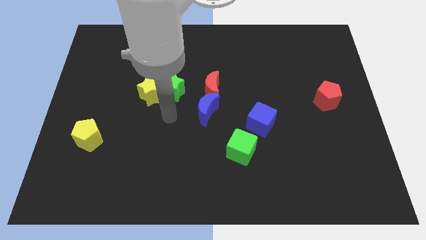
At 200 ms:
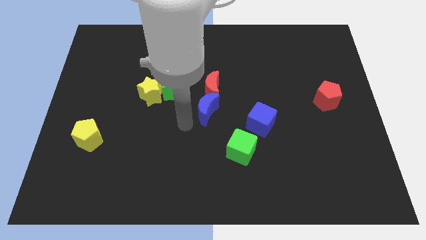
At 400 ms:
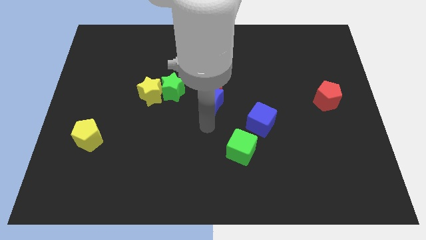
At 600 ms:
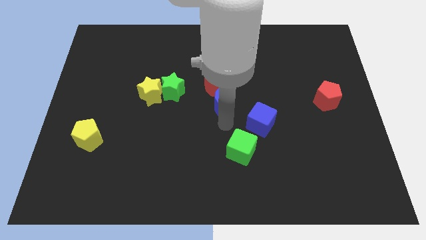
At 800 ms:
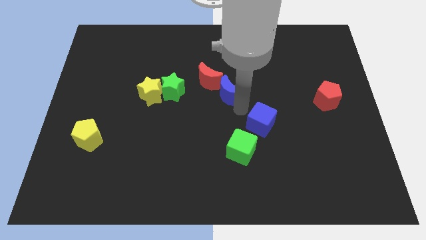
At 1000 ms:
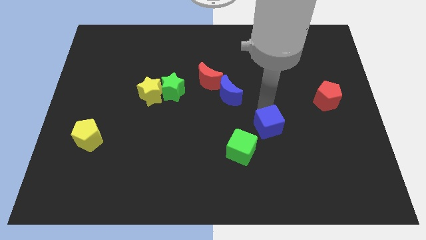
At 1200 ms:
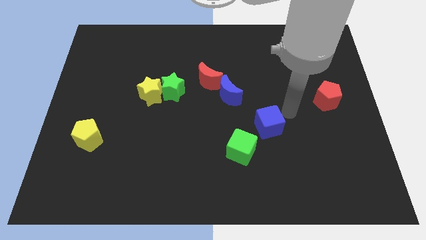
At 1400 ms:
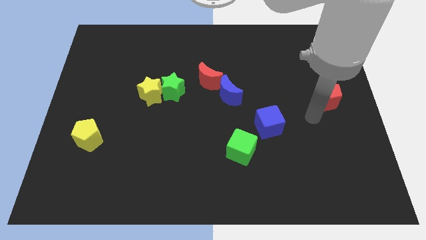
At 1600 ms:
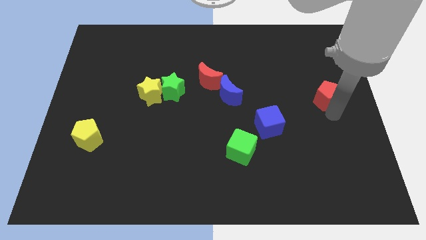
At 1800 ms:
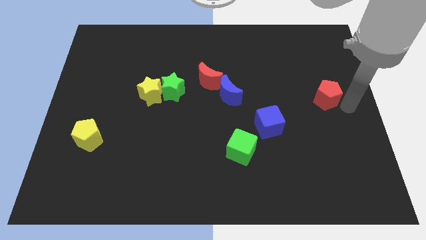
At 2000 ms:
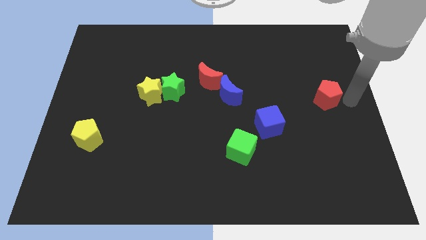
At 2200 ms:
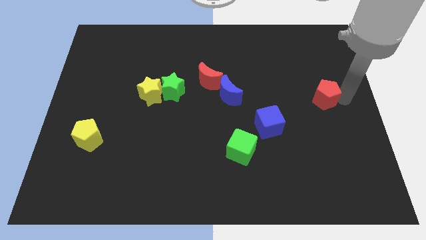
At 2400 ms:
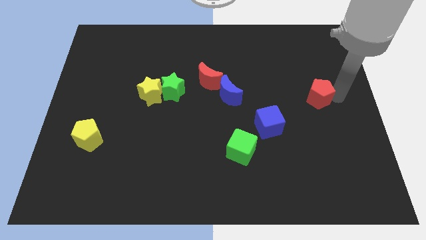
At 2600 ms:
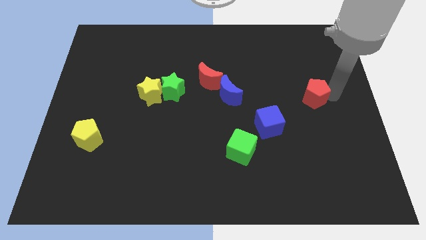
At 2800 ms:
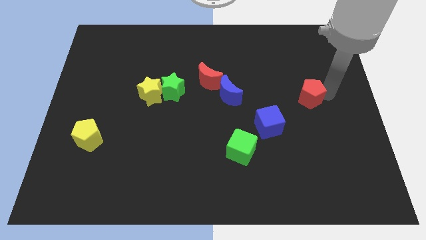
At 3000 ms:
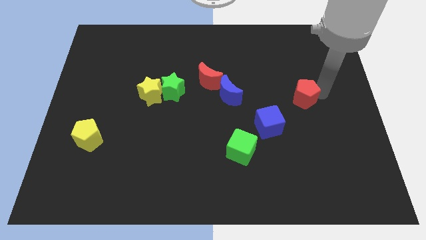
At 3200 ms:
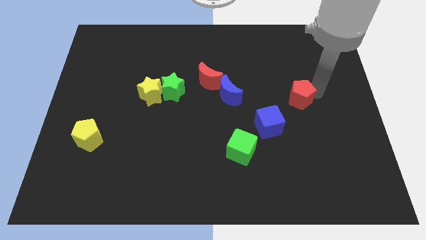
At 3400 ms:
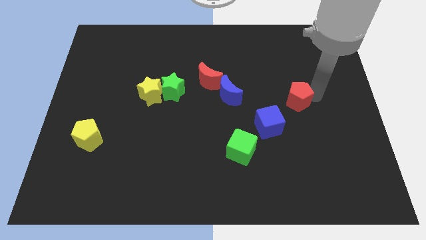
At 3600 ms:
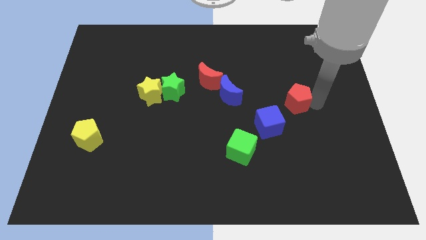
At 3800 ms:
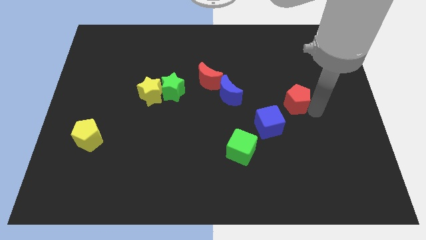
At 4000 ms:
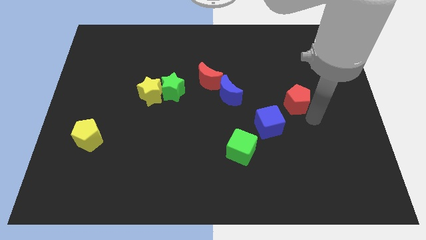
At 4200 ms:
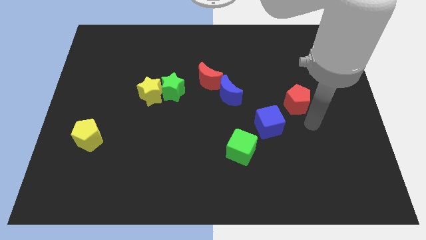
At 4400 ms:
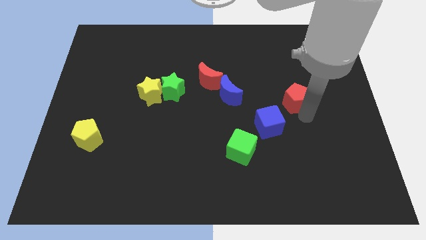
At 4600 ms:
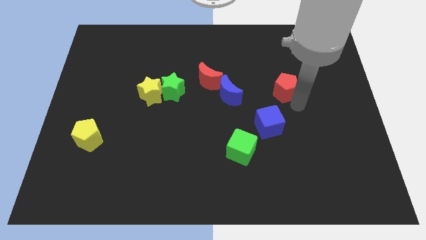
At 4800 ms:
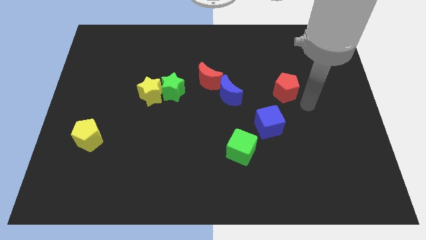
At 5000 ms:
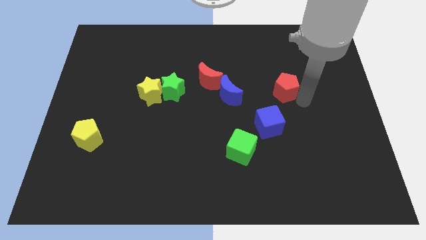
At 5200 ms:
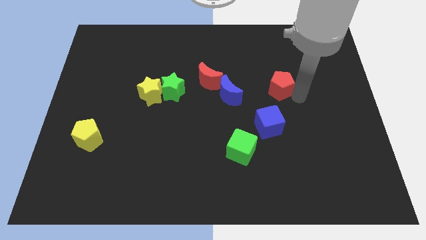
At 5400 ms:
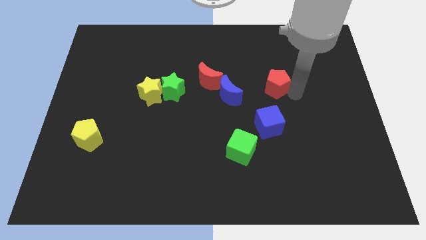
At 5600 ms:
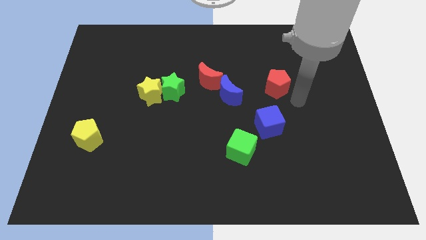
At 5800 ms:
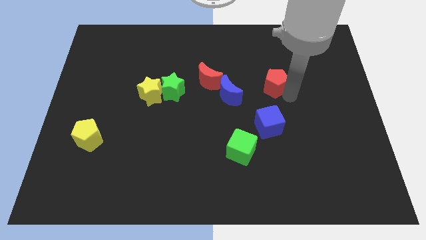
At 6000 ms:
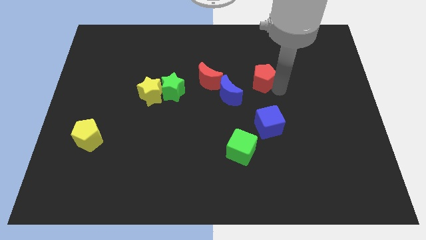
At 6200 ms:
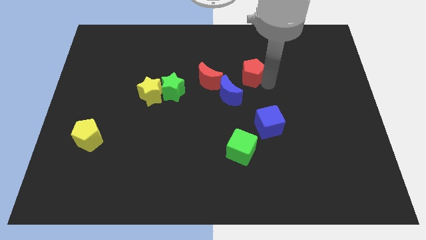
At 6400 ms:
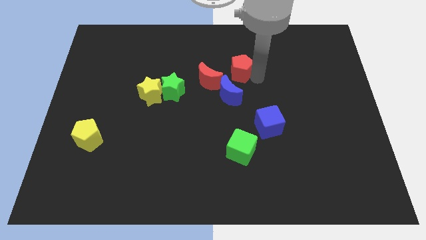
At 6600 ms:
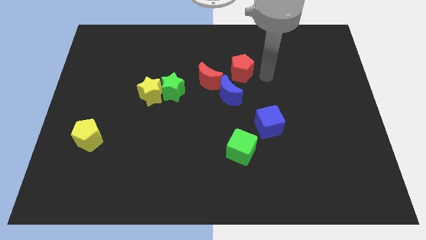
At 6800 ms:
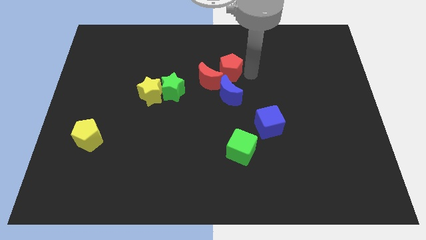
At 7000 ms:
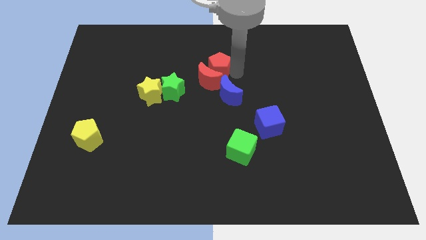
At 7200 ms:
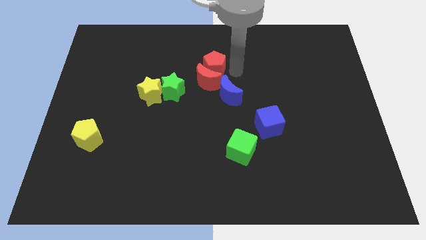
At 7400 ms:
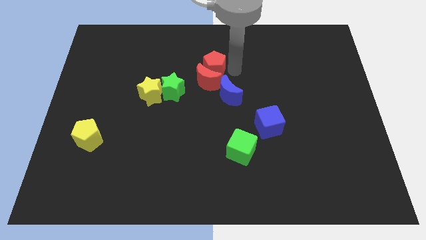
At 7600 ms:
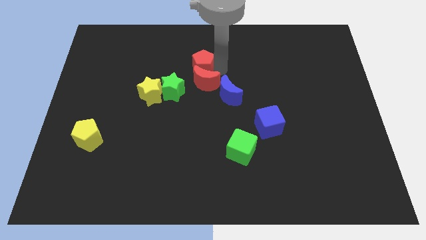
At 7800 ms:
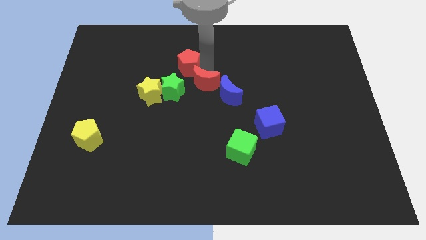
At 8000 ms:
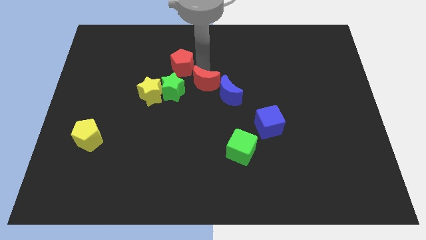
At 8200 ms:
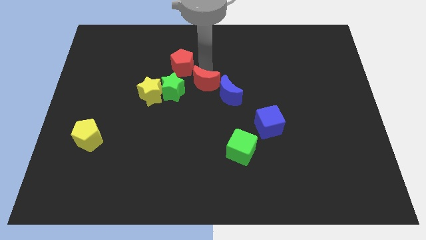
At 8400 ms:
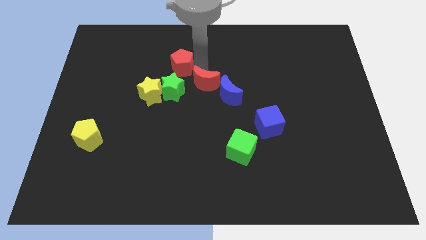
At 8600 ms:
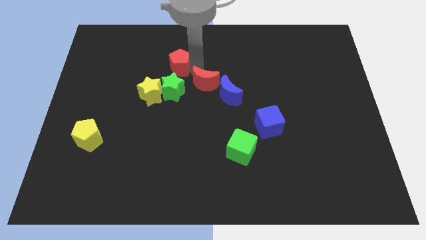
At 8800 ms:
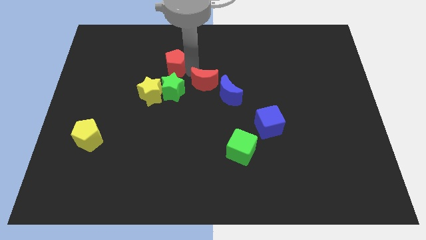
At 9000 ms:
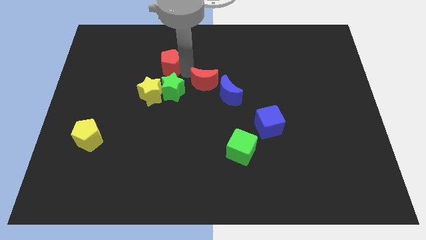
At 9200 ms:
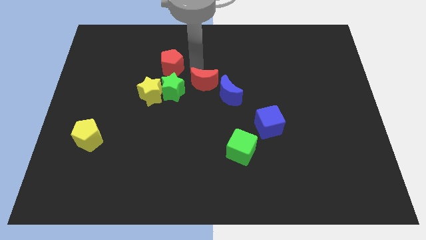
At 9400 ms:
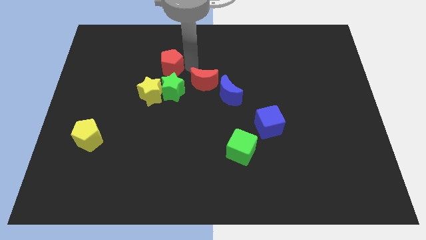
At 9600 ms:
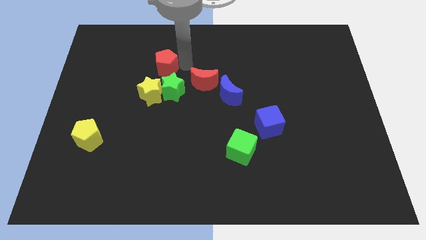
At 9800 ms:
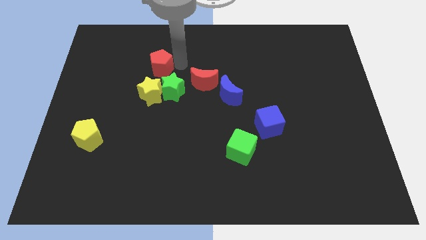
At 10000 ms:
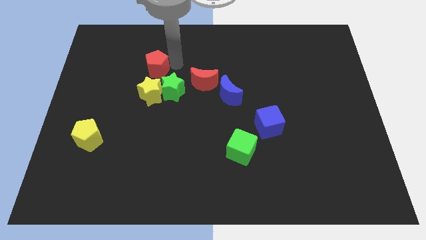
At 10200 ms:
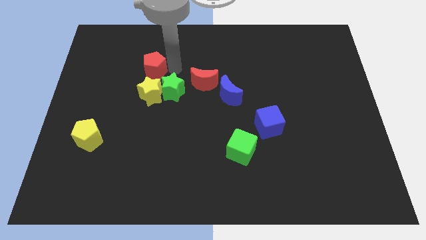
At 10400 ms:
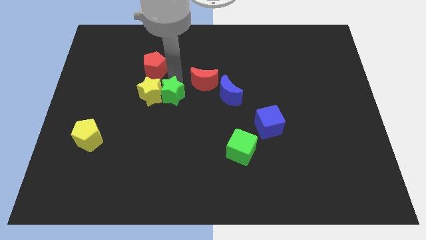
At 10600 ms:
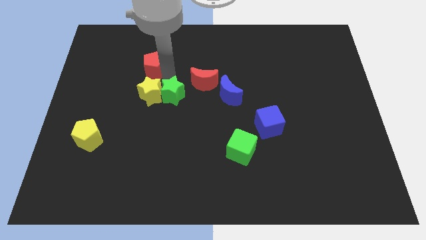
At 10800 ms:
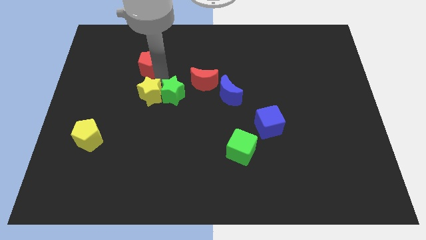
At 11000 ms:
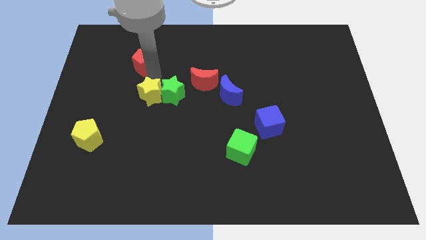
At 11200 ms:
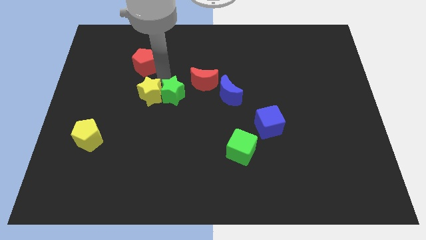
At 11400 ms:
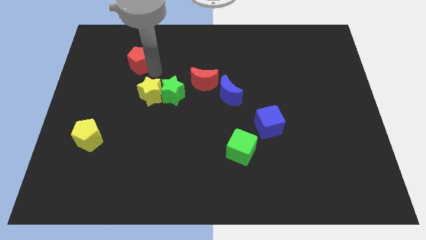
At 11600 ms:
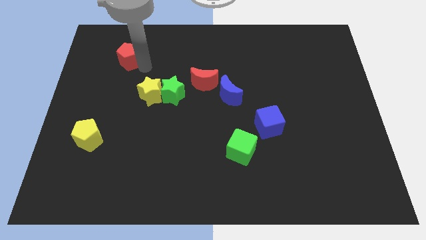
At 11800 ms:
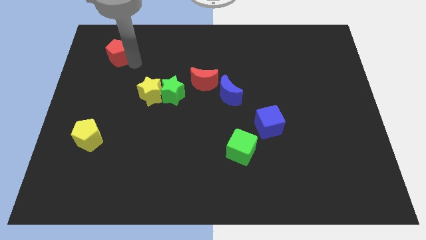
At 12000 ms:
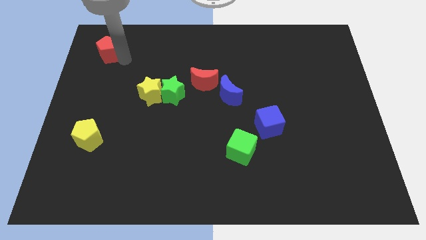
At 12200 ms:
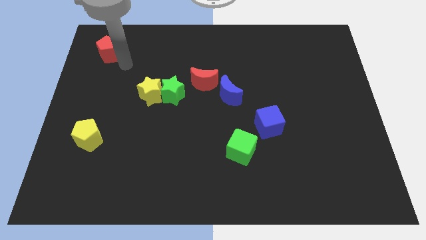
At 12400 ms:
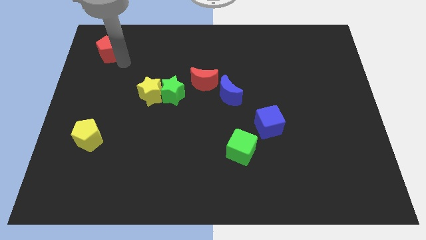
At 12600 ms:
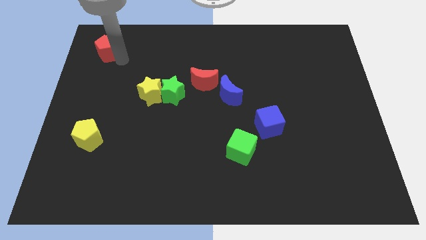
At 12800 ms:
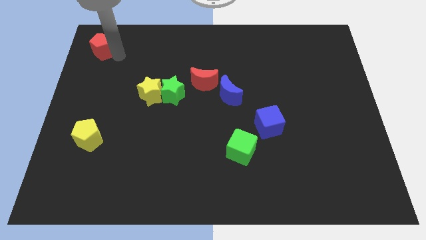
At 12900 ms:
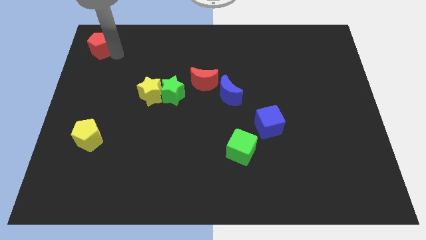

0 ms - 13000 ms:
put the red pentagon to the top left
